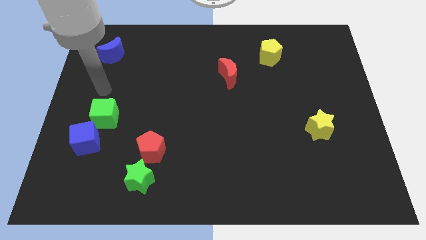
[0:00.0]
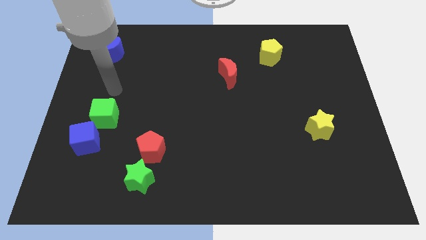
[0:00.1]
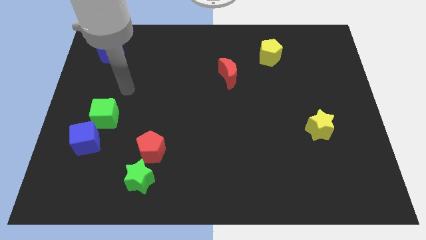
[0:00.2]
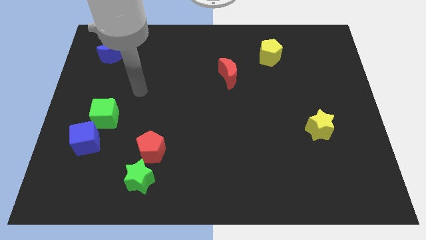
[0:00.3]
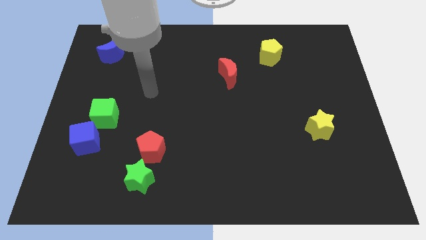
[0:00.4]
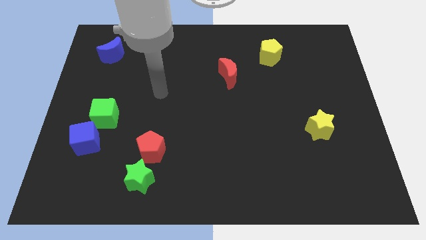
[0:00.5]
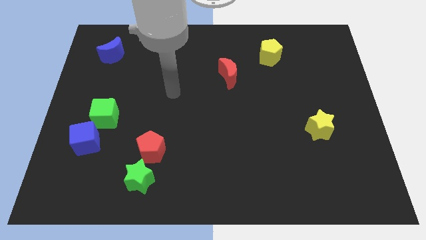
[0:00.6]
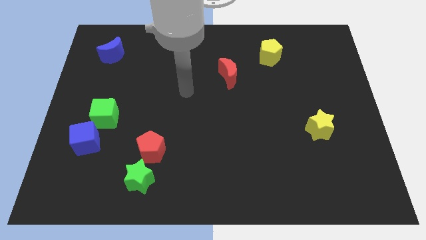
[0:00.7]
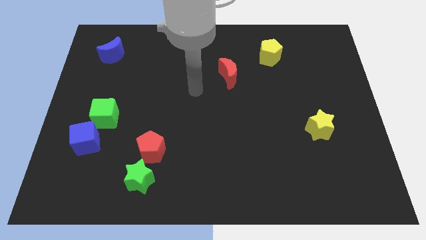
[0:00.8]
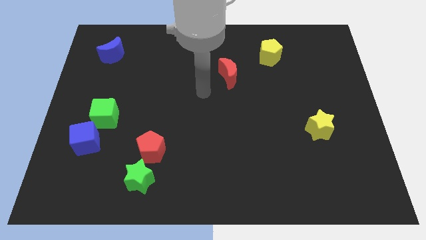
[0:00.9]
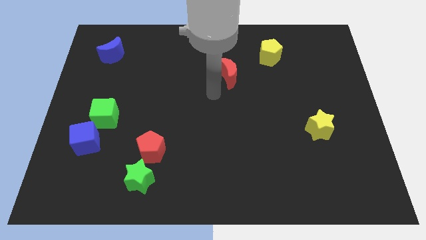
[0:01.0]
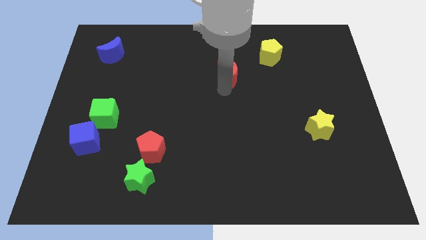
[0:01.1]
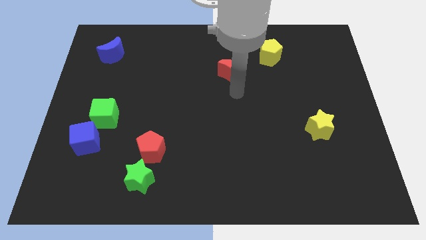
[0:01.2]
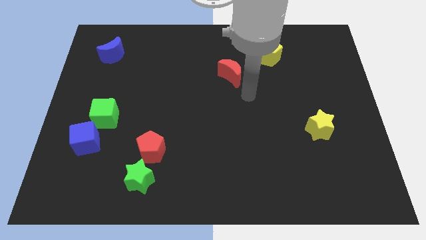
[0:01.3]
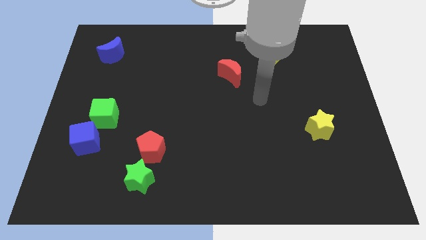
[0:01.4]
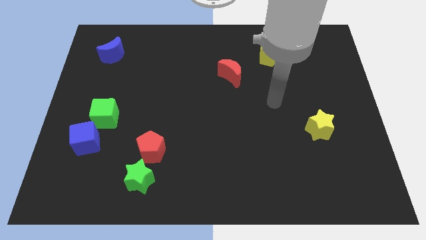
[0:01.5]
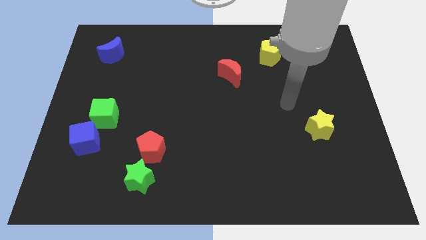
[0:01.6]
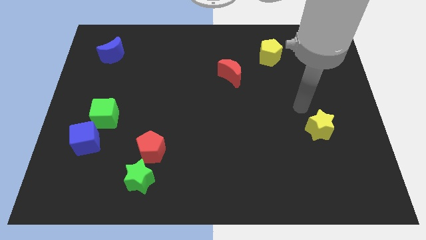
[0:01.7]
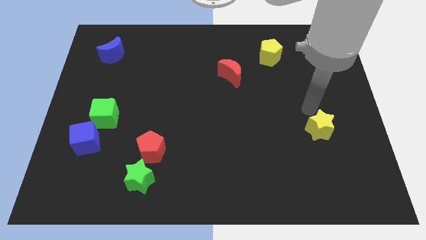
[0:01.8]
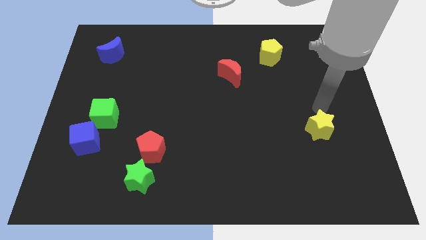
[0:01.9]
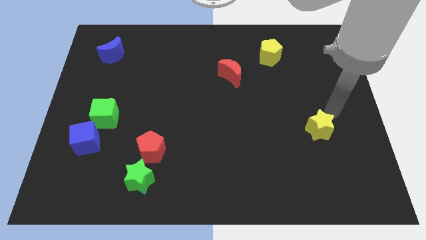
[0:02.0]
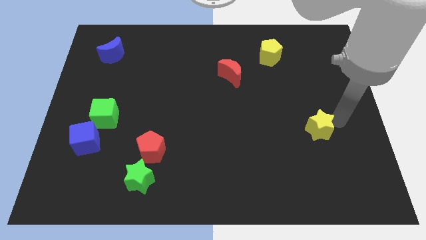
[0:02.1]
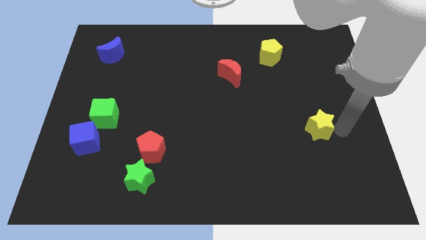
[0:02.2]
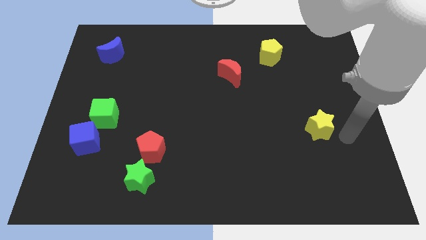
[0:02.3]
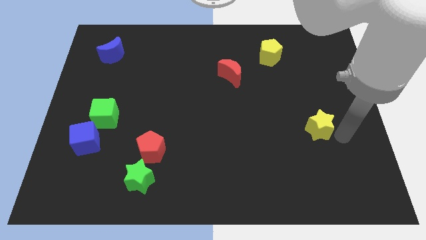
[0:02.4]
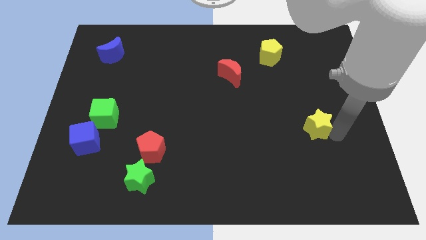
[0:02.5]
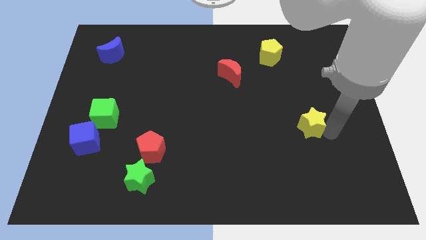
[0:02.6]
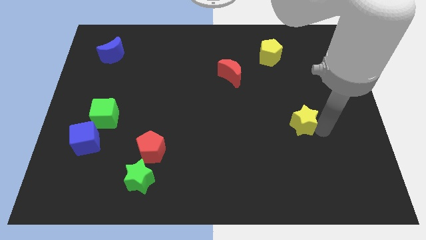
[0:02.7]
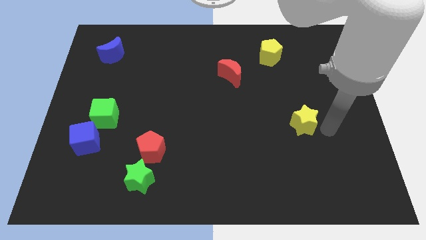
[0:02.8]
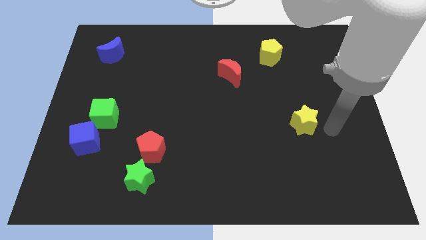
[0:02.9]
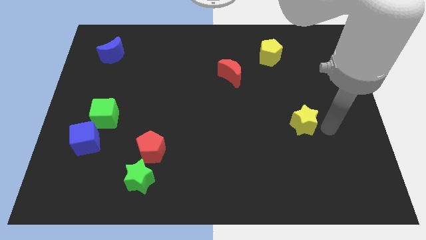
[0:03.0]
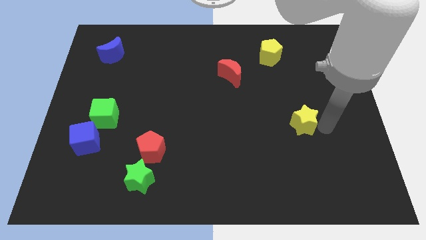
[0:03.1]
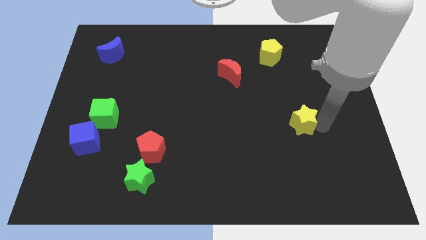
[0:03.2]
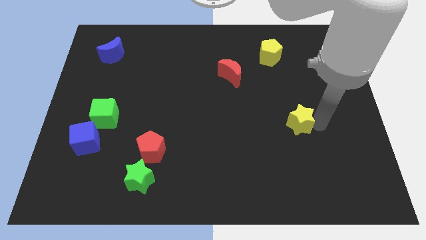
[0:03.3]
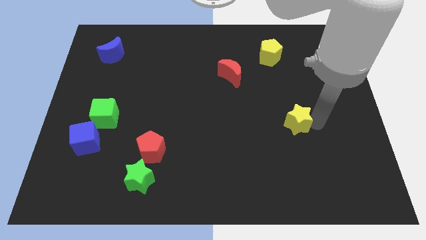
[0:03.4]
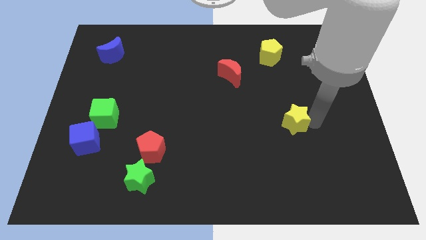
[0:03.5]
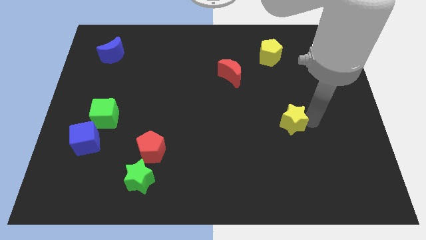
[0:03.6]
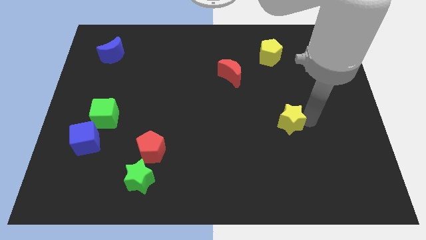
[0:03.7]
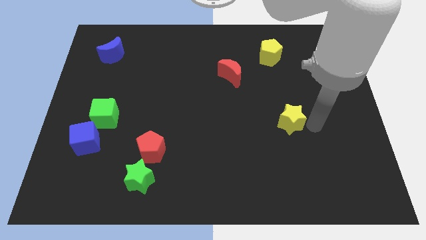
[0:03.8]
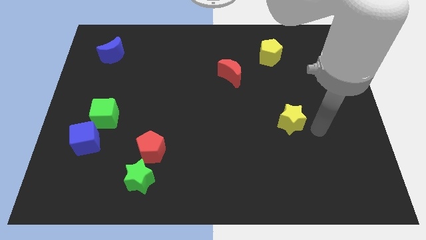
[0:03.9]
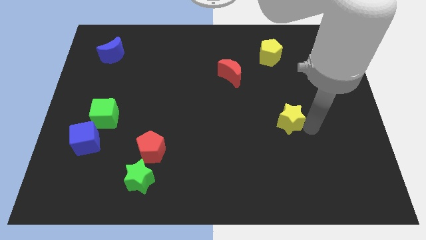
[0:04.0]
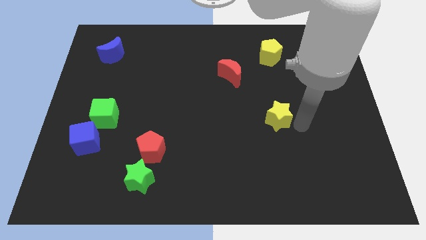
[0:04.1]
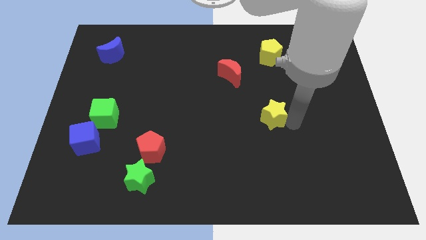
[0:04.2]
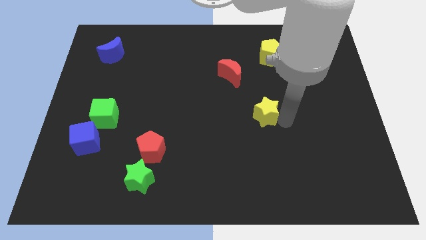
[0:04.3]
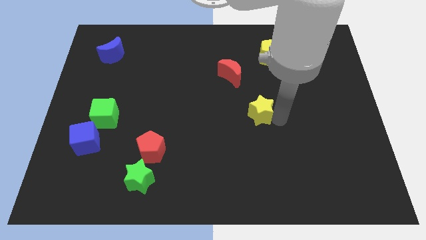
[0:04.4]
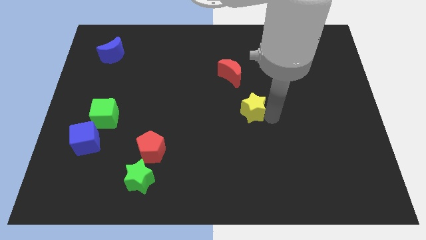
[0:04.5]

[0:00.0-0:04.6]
slide the yellow star to the bottom side of the red moon

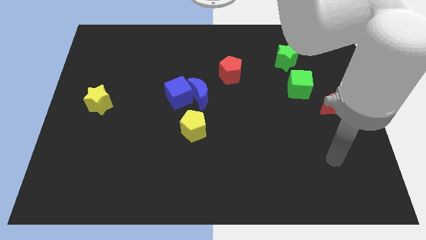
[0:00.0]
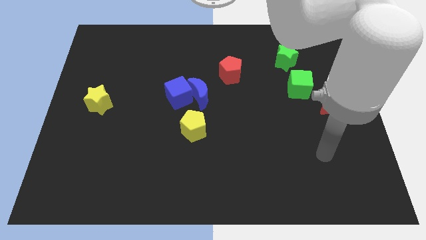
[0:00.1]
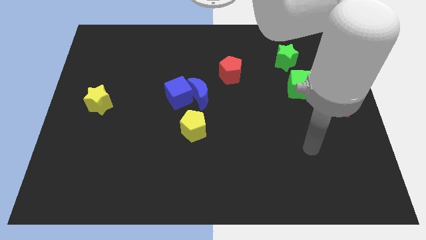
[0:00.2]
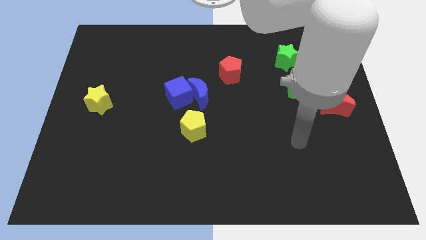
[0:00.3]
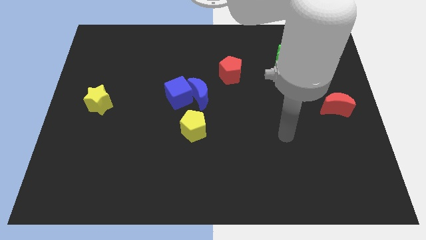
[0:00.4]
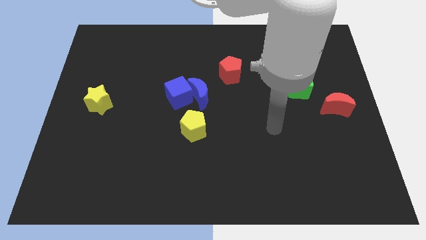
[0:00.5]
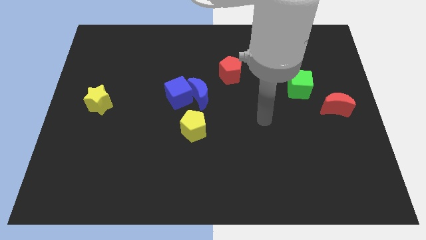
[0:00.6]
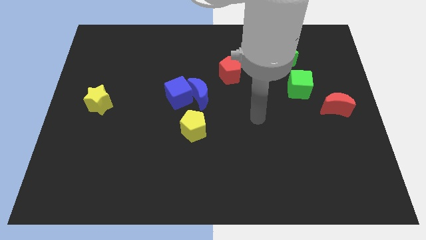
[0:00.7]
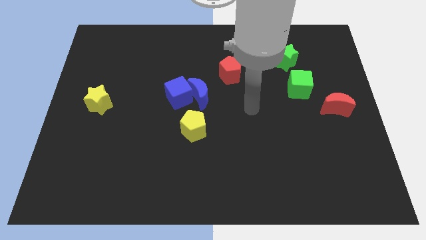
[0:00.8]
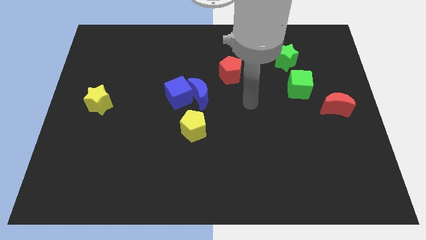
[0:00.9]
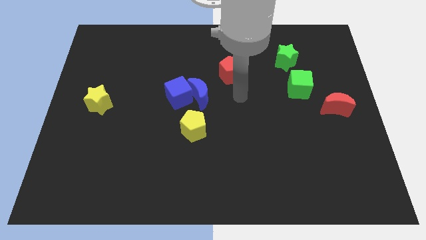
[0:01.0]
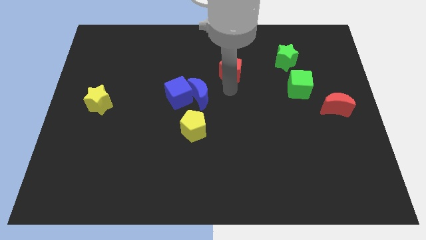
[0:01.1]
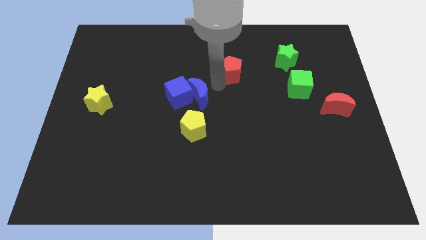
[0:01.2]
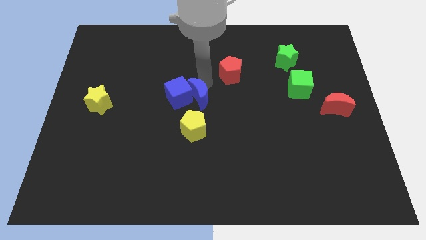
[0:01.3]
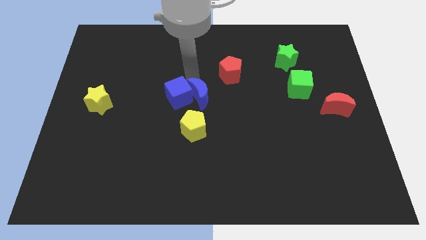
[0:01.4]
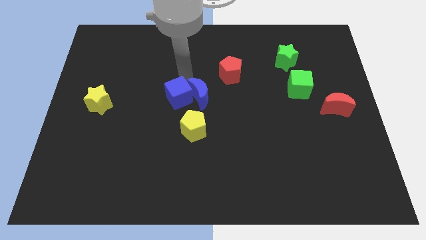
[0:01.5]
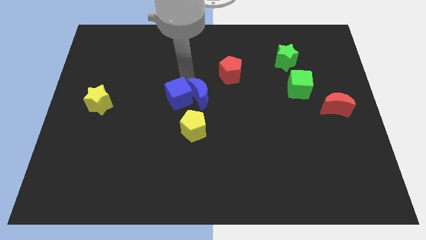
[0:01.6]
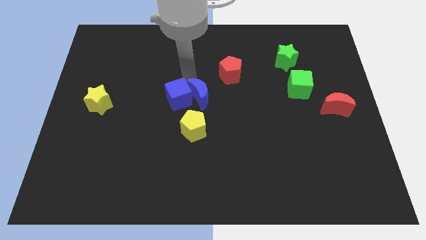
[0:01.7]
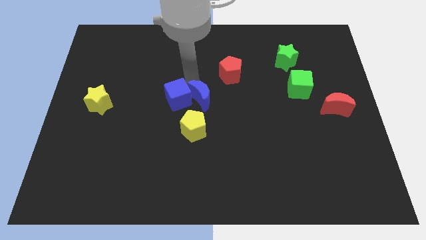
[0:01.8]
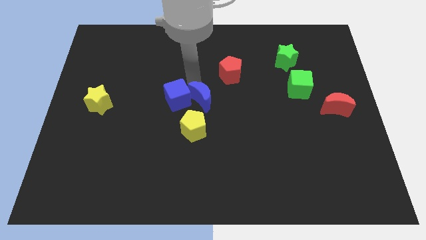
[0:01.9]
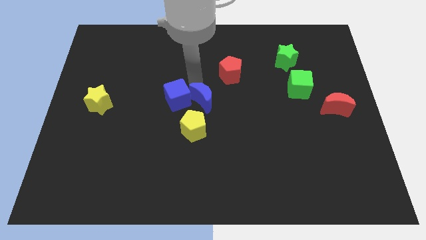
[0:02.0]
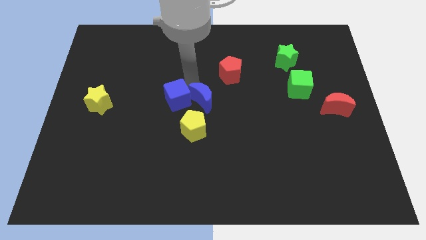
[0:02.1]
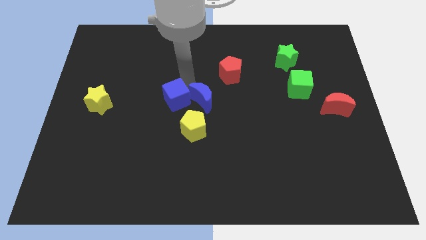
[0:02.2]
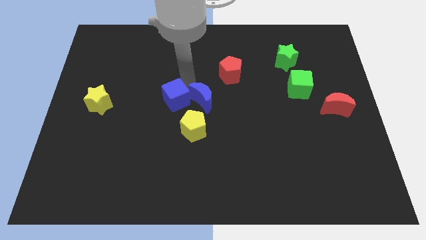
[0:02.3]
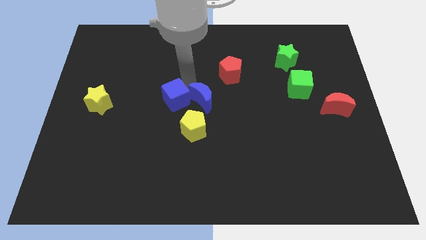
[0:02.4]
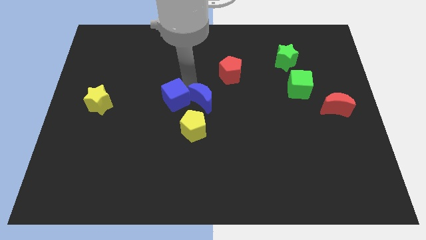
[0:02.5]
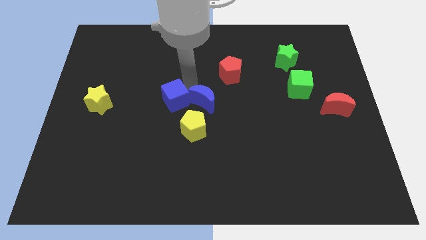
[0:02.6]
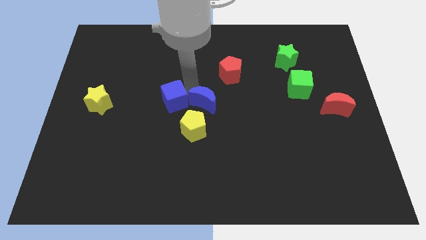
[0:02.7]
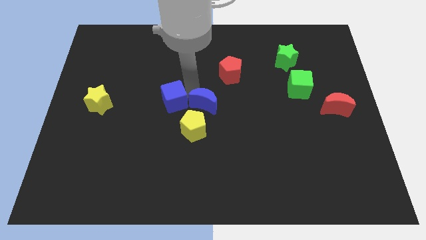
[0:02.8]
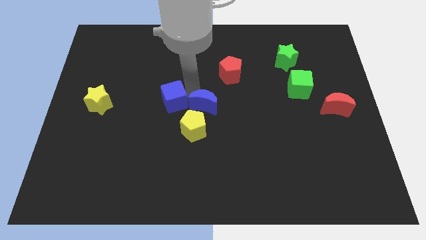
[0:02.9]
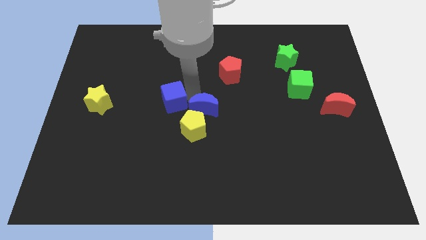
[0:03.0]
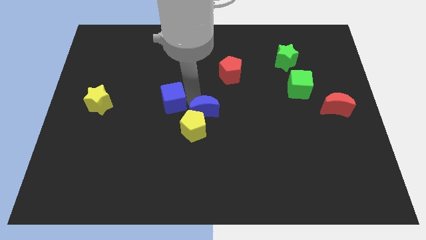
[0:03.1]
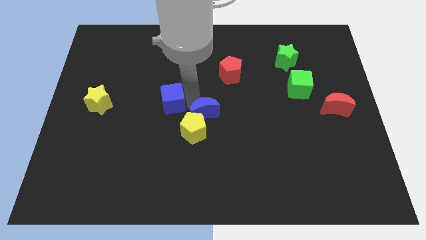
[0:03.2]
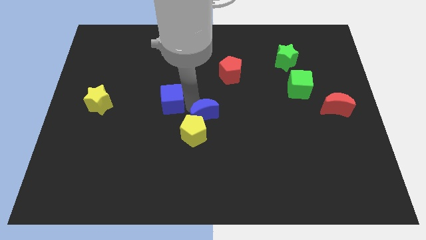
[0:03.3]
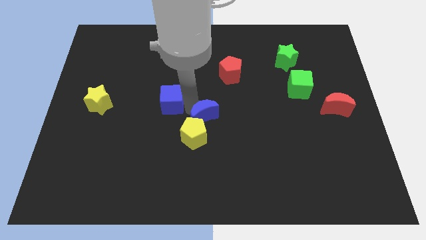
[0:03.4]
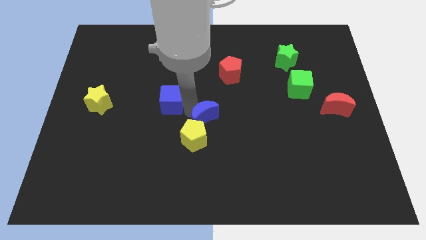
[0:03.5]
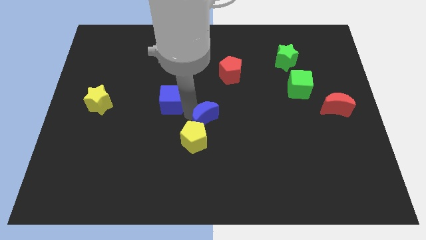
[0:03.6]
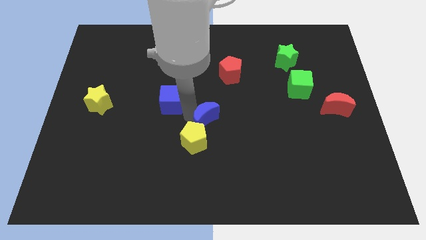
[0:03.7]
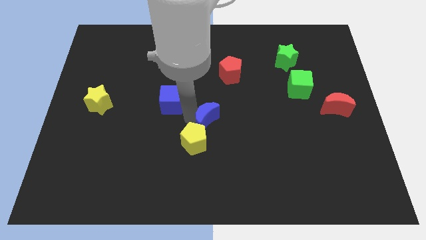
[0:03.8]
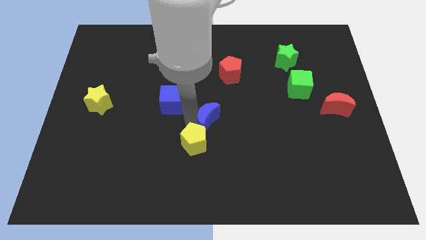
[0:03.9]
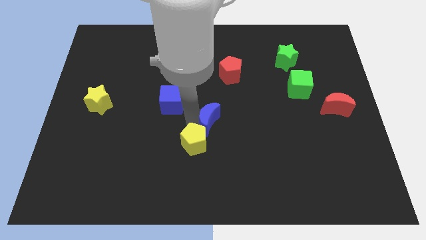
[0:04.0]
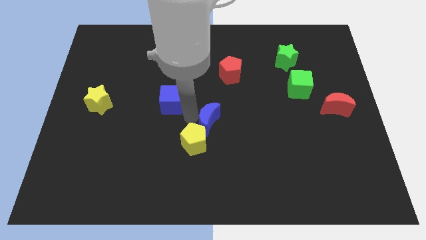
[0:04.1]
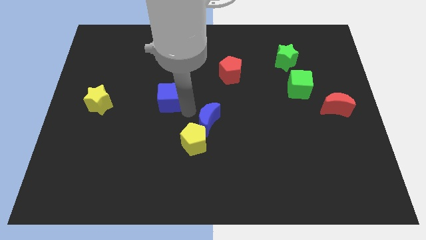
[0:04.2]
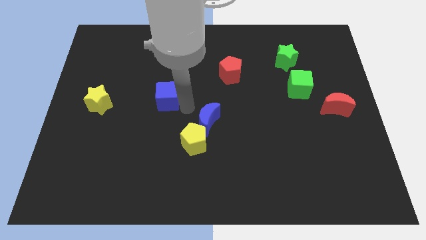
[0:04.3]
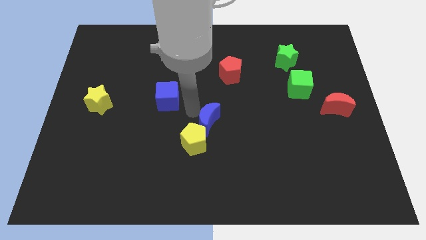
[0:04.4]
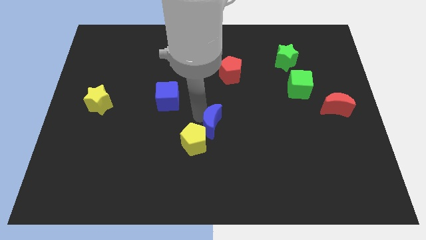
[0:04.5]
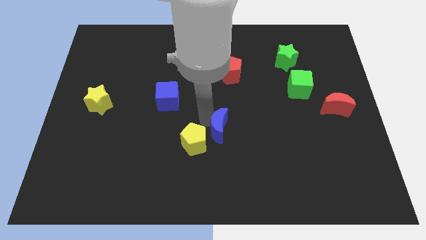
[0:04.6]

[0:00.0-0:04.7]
push the blue moon just right of the yellow pentagon
